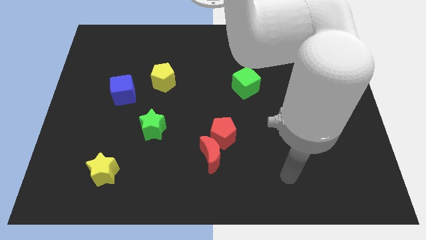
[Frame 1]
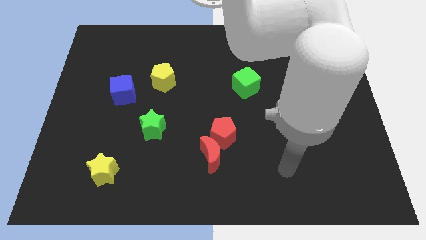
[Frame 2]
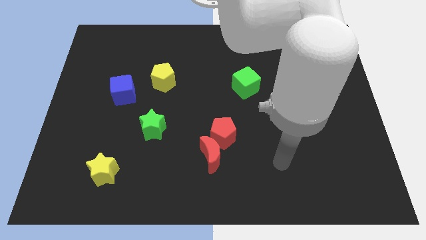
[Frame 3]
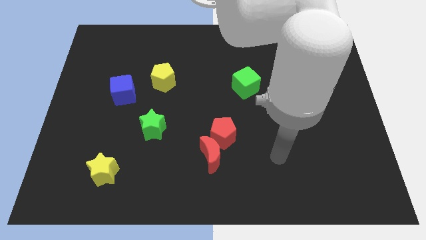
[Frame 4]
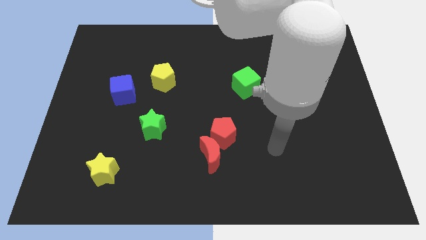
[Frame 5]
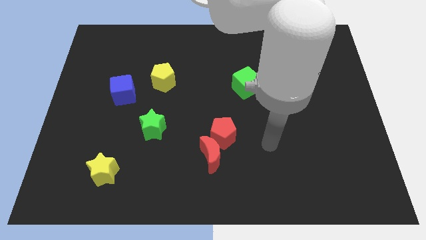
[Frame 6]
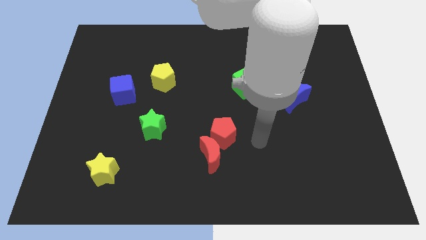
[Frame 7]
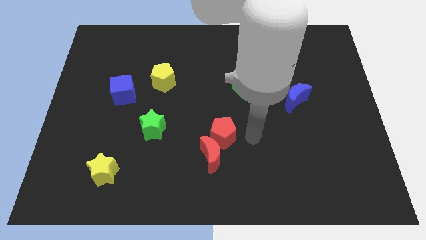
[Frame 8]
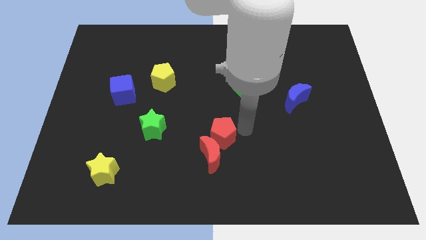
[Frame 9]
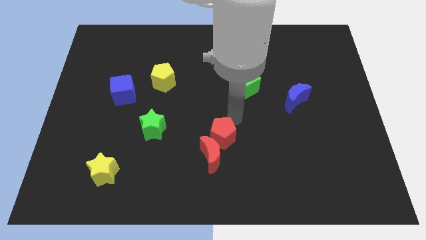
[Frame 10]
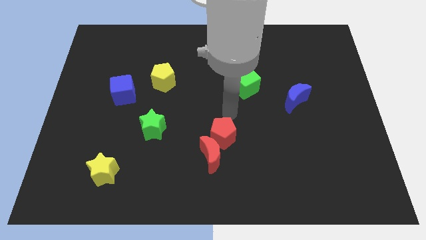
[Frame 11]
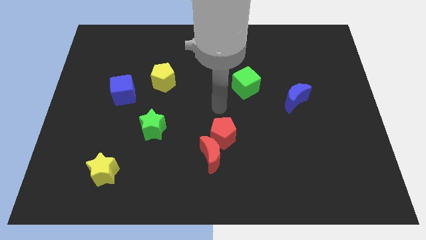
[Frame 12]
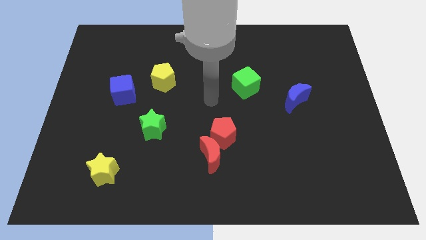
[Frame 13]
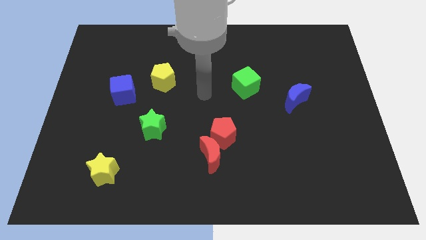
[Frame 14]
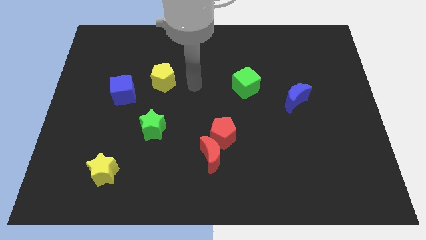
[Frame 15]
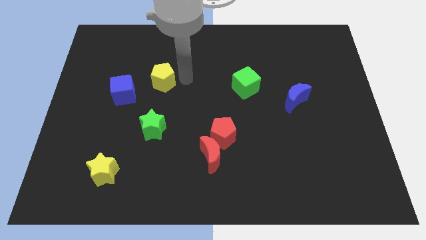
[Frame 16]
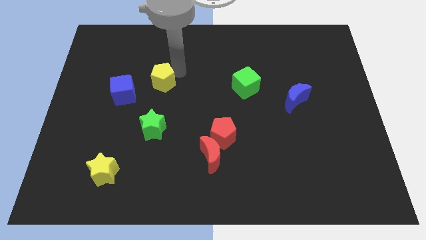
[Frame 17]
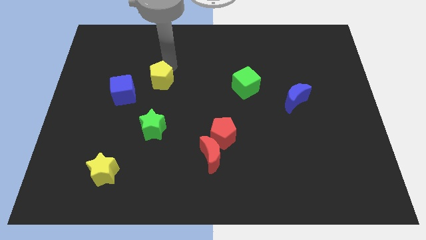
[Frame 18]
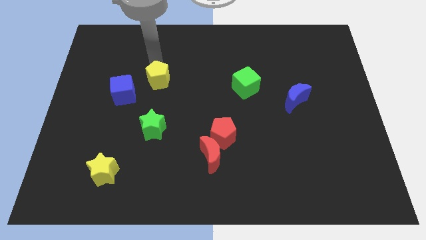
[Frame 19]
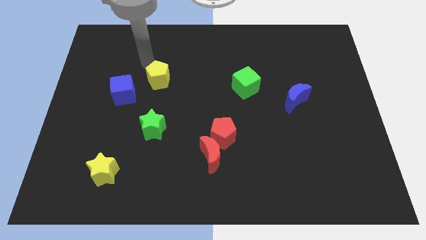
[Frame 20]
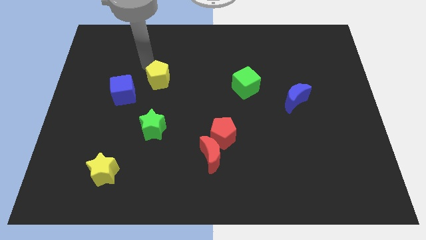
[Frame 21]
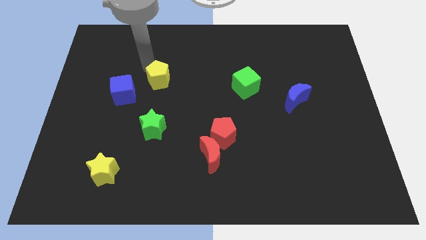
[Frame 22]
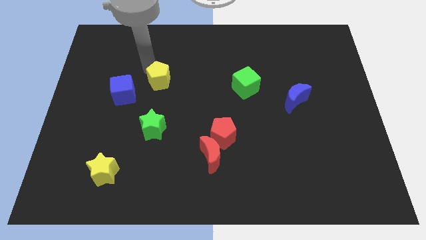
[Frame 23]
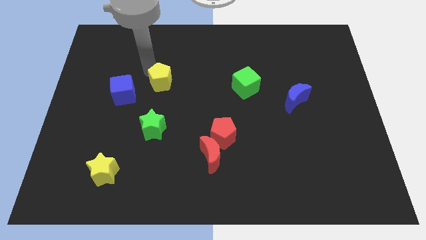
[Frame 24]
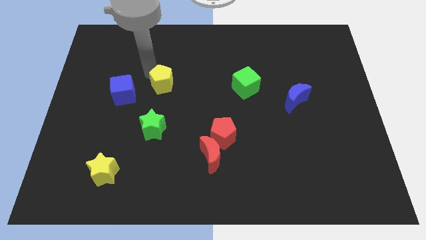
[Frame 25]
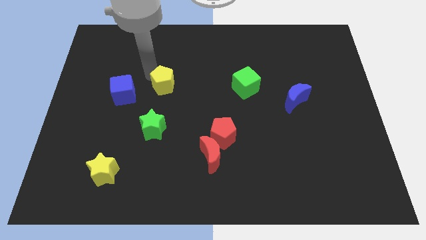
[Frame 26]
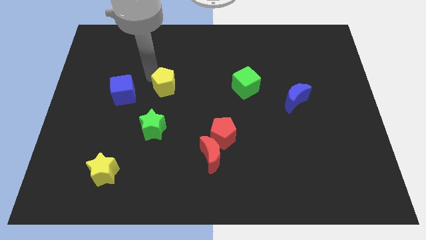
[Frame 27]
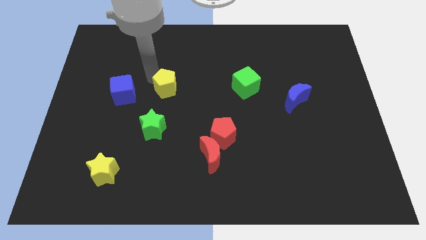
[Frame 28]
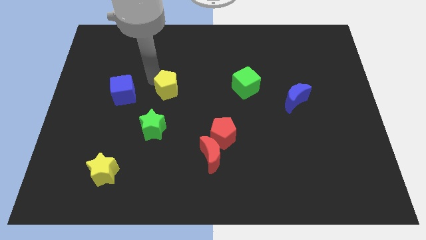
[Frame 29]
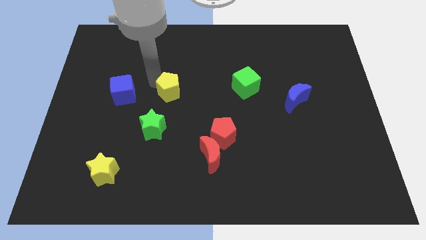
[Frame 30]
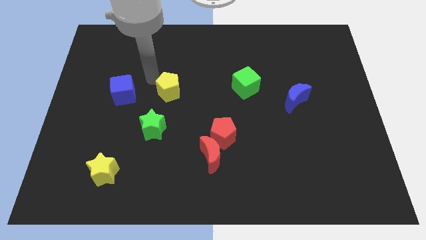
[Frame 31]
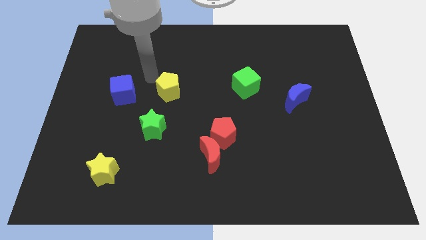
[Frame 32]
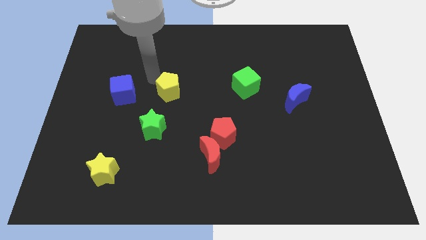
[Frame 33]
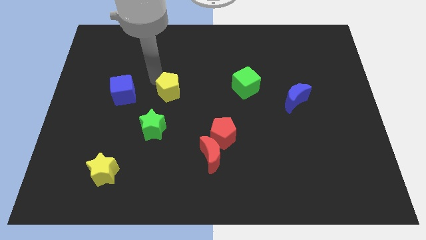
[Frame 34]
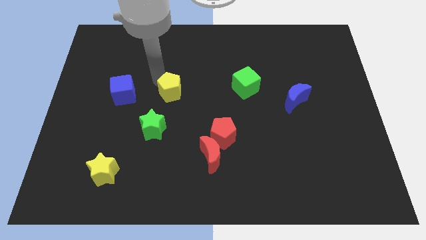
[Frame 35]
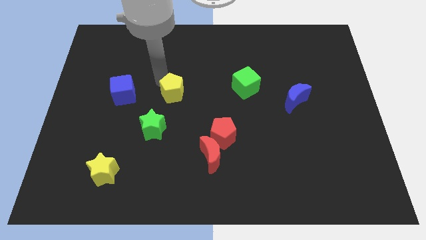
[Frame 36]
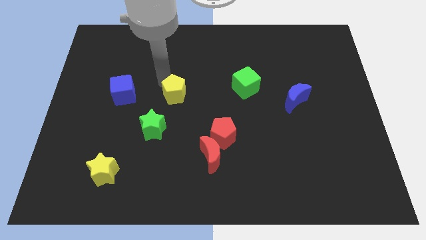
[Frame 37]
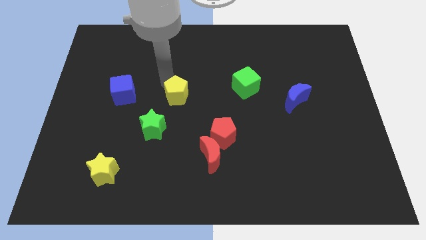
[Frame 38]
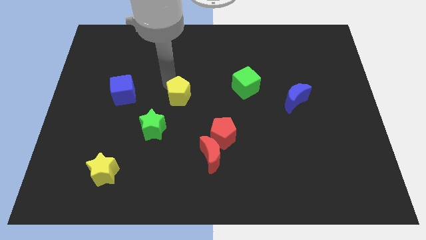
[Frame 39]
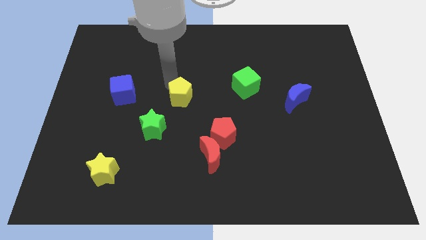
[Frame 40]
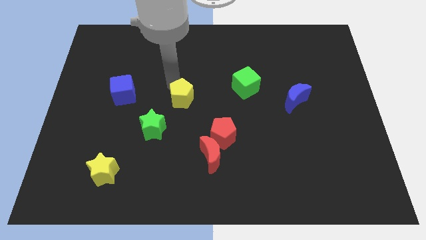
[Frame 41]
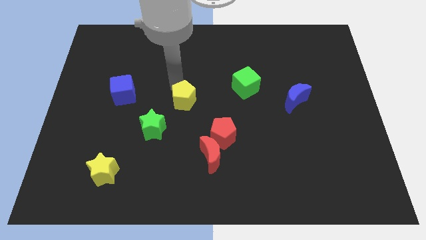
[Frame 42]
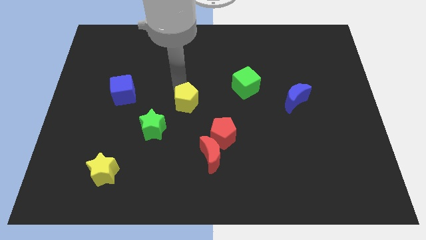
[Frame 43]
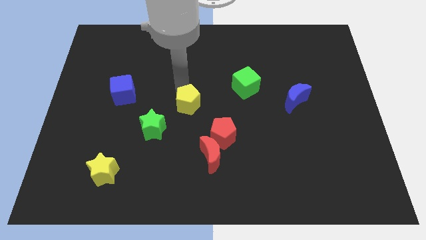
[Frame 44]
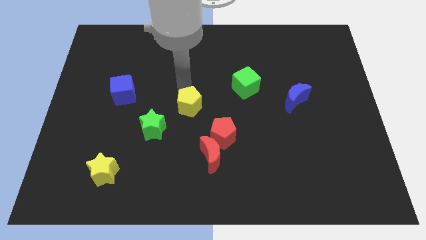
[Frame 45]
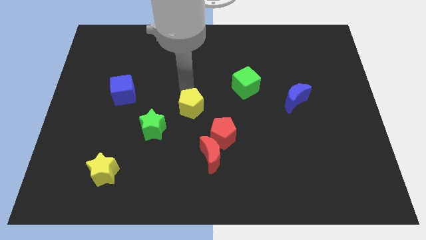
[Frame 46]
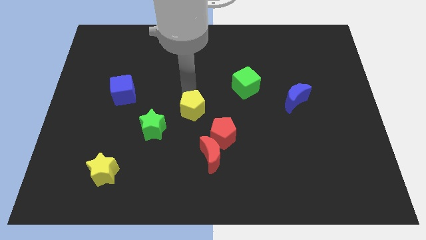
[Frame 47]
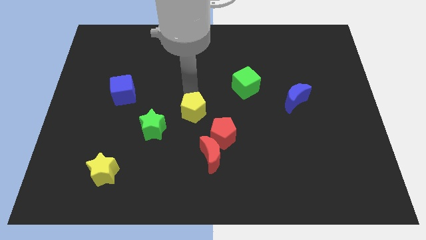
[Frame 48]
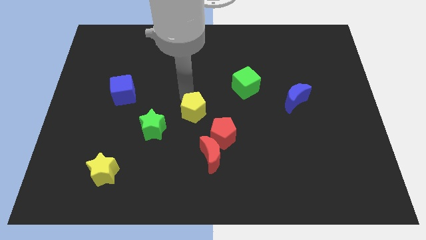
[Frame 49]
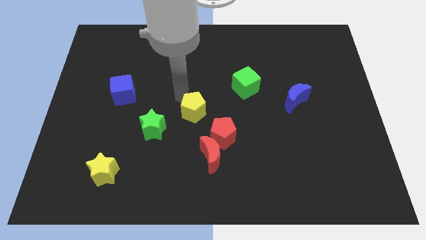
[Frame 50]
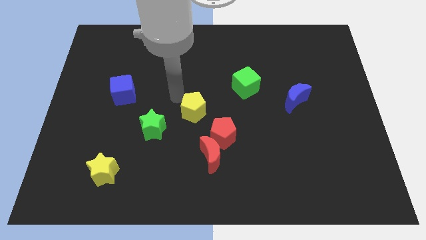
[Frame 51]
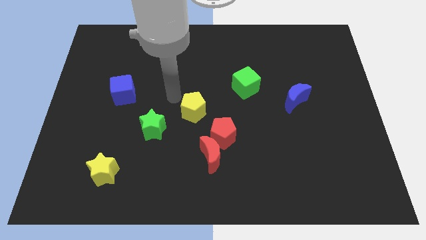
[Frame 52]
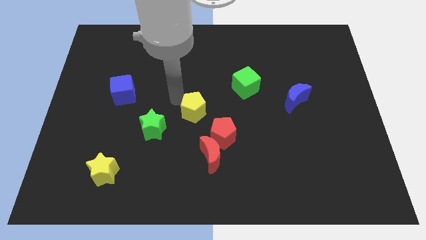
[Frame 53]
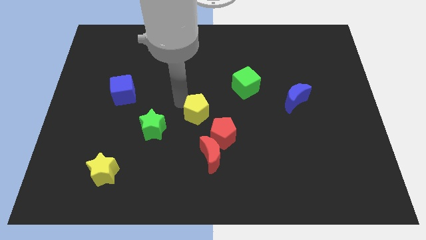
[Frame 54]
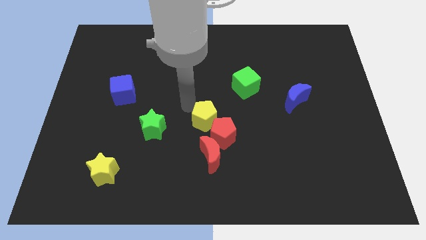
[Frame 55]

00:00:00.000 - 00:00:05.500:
move the yellow pentagon to the red pentagon

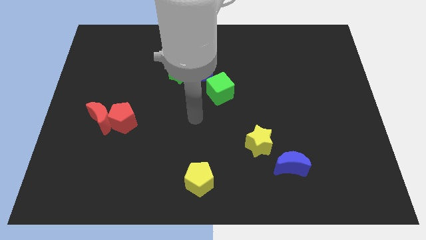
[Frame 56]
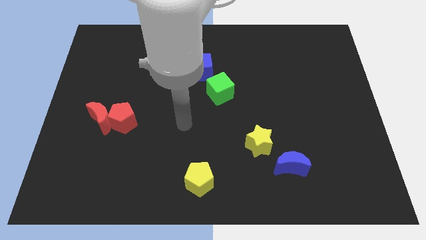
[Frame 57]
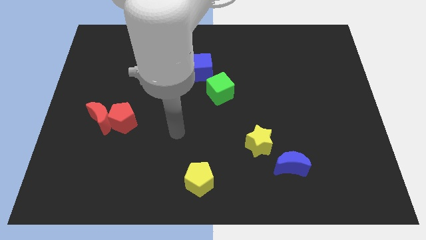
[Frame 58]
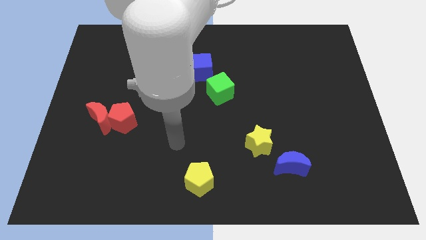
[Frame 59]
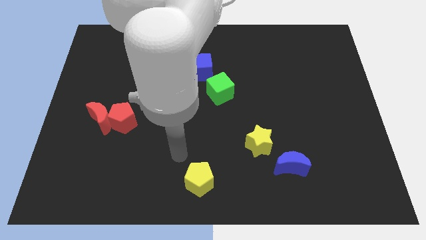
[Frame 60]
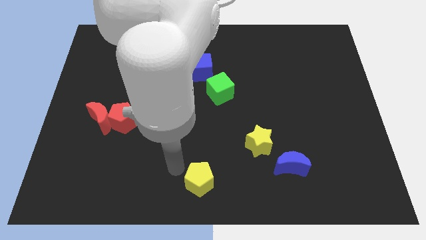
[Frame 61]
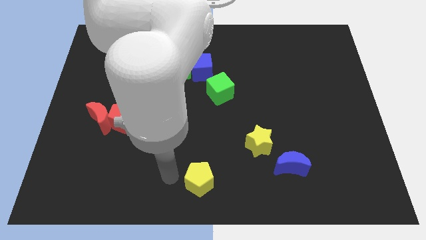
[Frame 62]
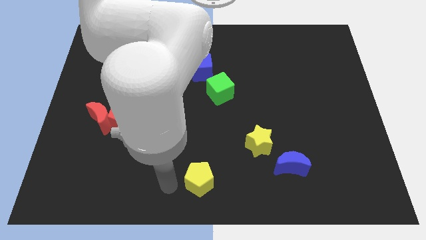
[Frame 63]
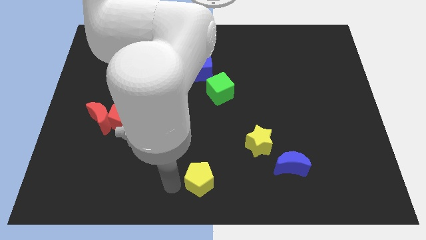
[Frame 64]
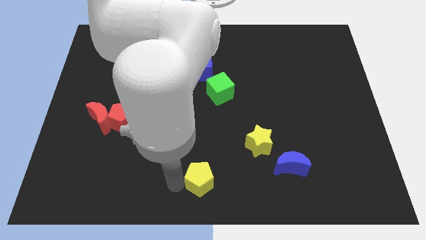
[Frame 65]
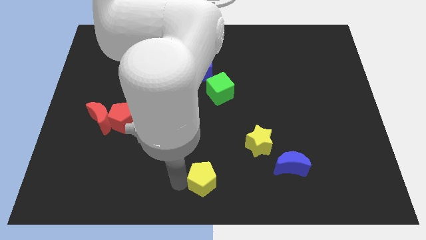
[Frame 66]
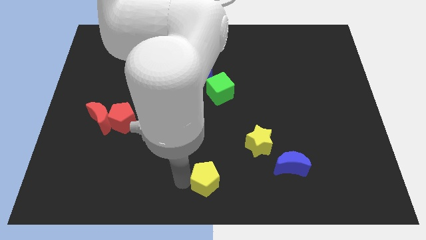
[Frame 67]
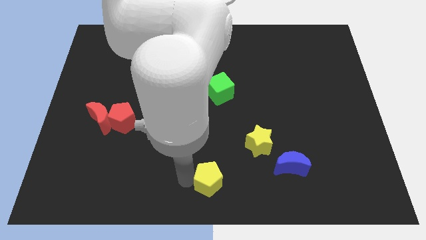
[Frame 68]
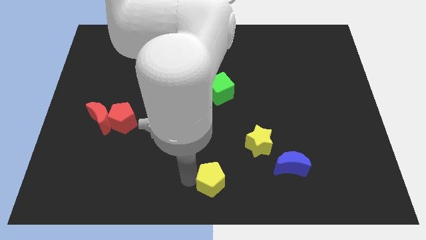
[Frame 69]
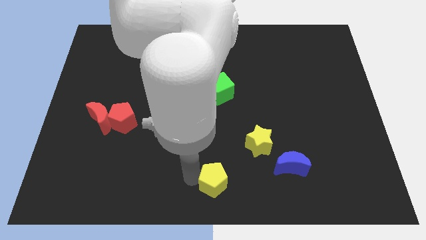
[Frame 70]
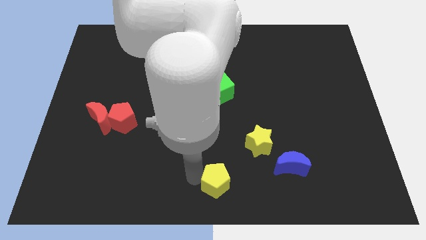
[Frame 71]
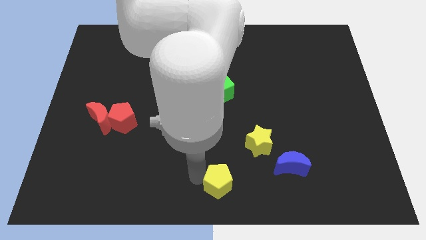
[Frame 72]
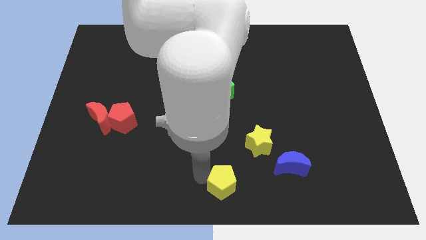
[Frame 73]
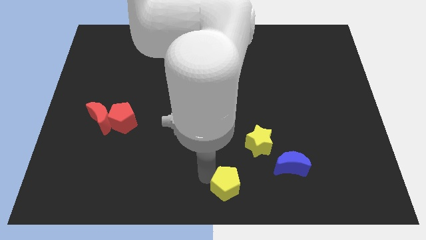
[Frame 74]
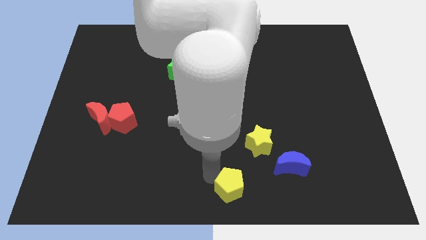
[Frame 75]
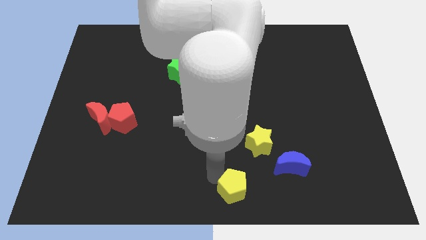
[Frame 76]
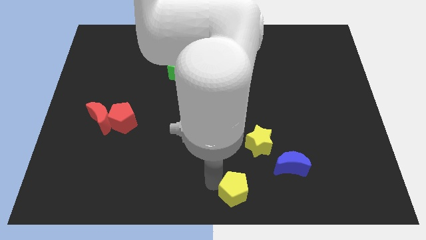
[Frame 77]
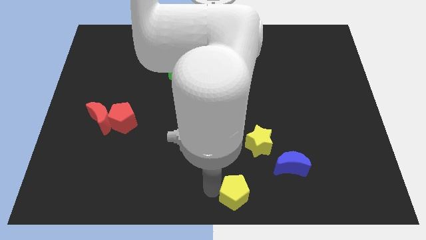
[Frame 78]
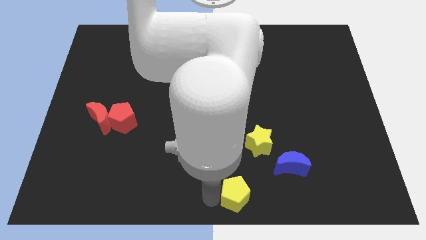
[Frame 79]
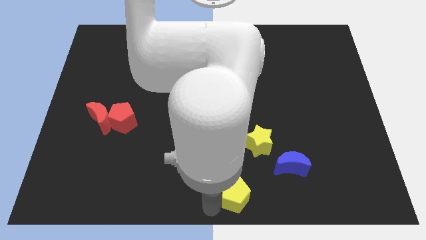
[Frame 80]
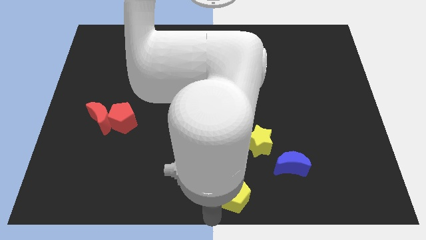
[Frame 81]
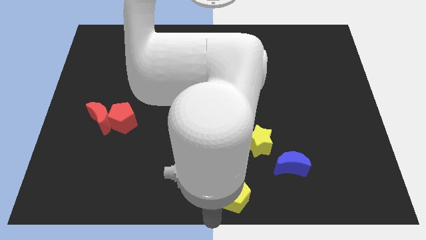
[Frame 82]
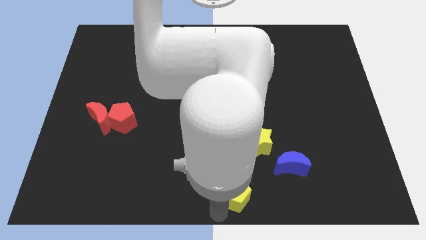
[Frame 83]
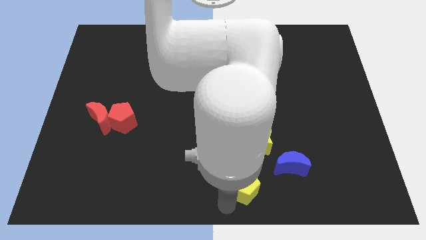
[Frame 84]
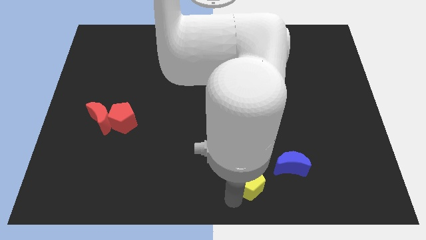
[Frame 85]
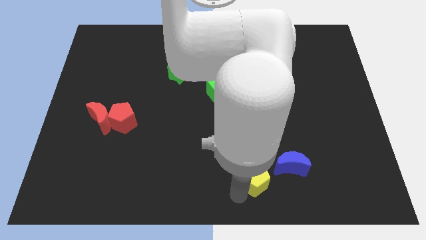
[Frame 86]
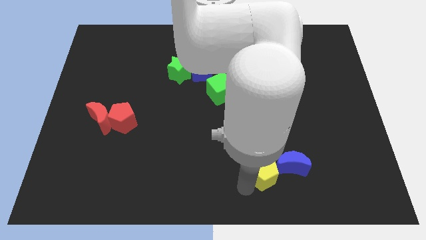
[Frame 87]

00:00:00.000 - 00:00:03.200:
push the yellow pentagon close to the blue moon
